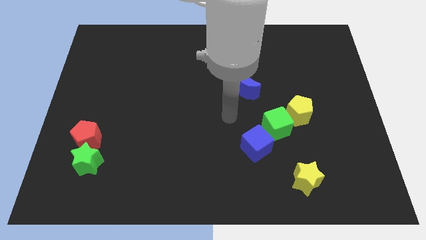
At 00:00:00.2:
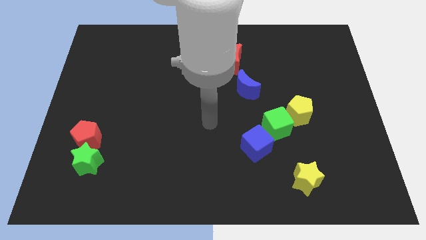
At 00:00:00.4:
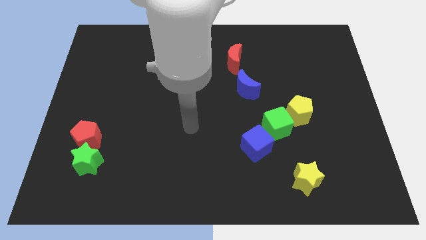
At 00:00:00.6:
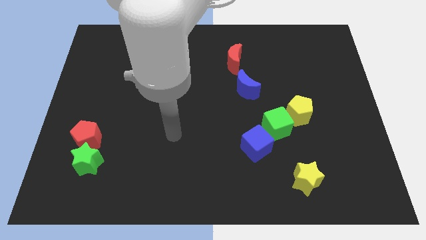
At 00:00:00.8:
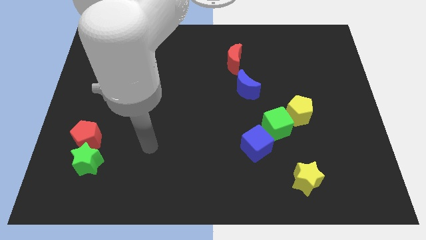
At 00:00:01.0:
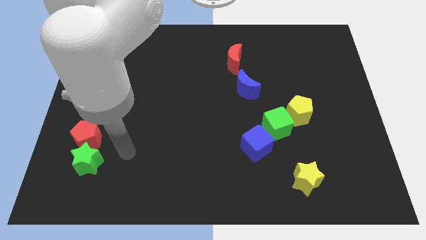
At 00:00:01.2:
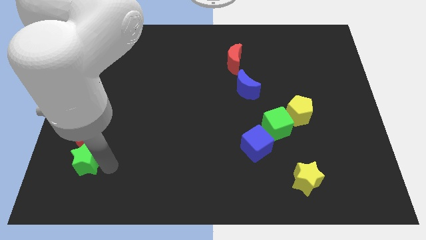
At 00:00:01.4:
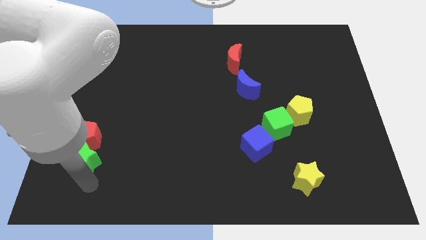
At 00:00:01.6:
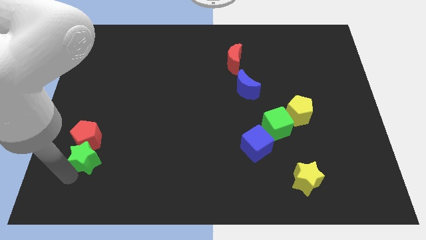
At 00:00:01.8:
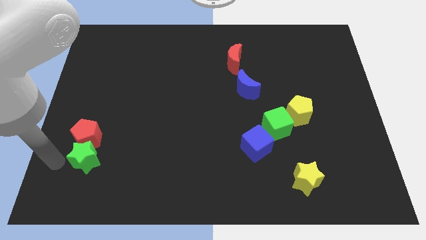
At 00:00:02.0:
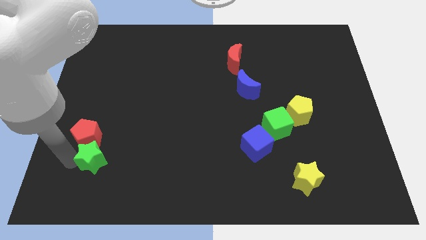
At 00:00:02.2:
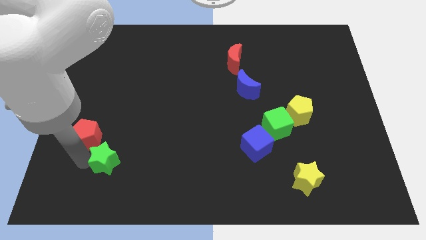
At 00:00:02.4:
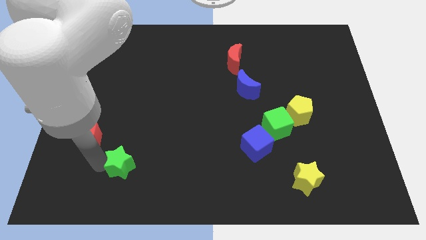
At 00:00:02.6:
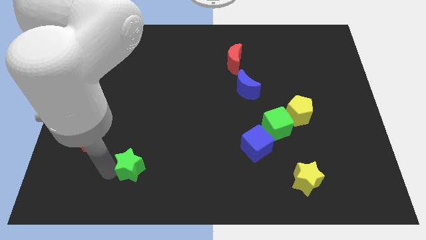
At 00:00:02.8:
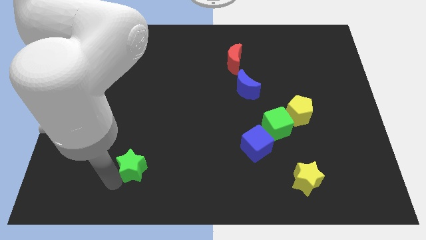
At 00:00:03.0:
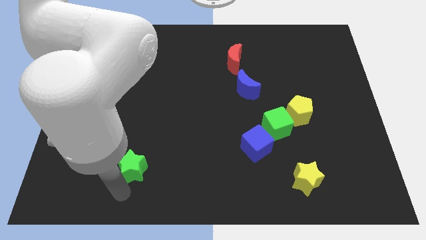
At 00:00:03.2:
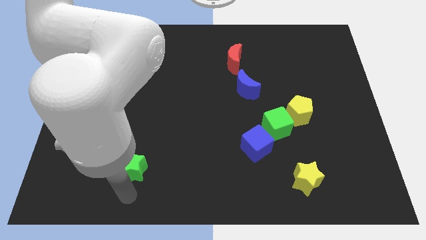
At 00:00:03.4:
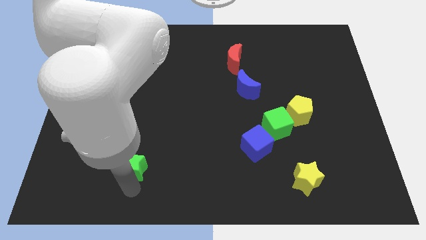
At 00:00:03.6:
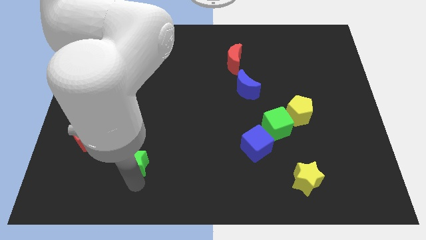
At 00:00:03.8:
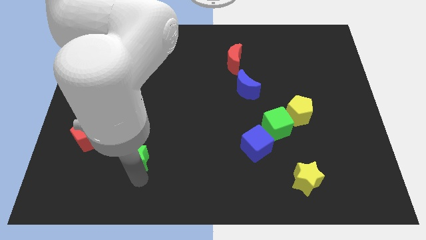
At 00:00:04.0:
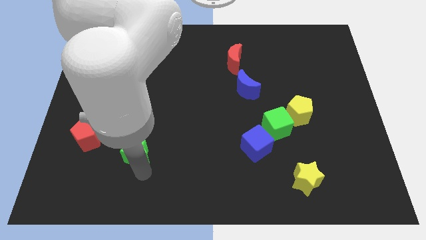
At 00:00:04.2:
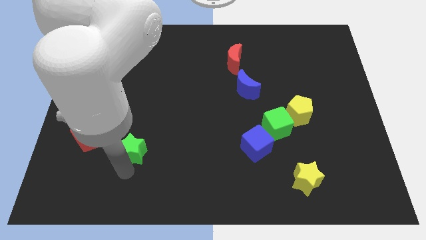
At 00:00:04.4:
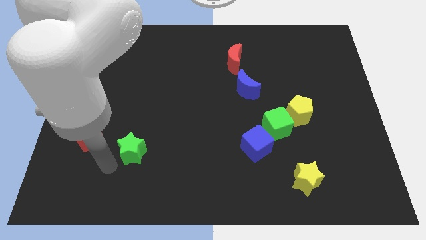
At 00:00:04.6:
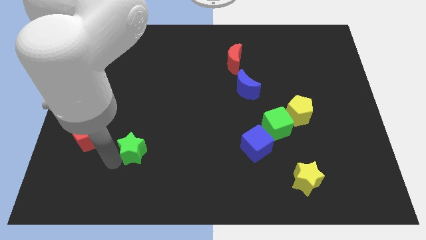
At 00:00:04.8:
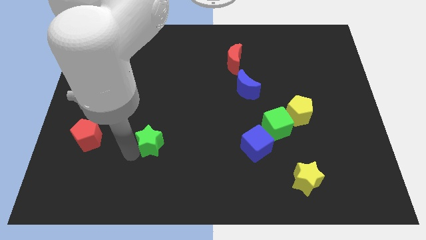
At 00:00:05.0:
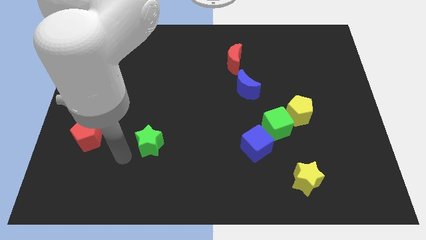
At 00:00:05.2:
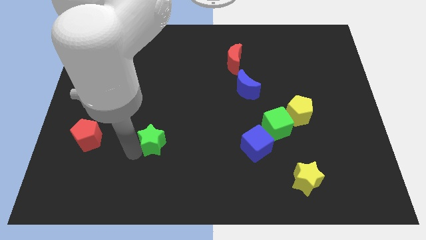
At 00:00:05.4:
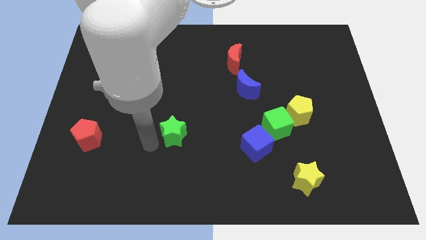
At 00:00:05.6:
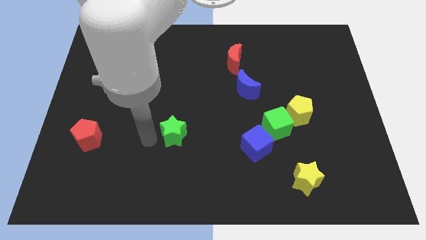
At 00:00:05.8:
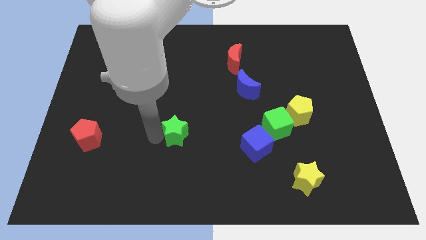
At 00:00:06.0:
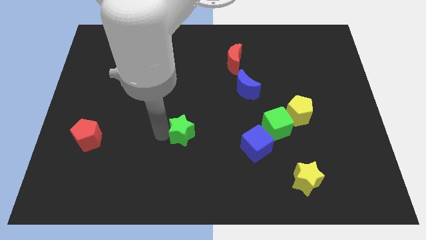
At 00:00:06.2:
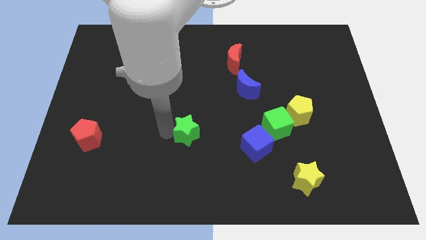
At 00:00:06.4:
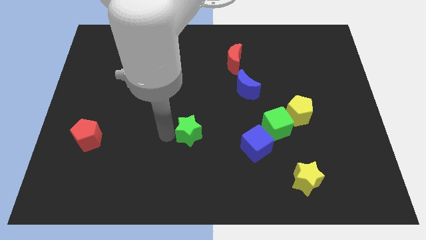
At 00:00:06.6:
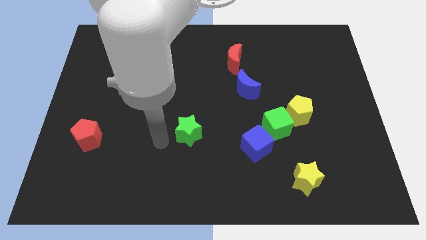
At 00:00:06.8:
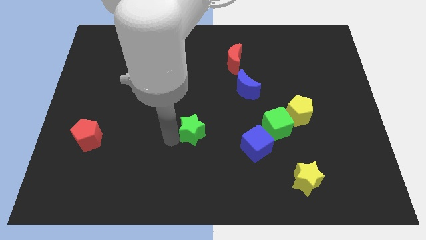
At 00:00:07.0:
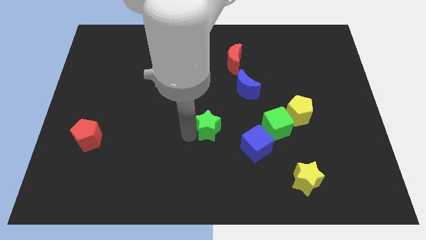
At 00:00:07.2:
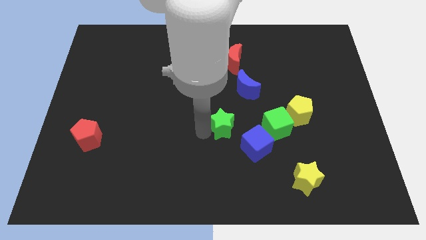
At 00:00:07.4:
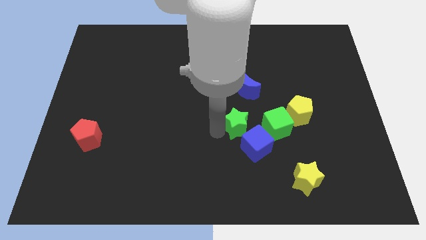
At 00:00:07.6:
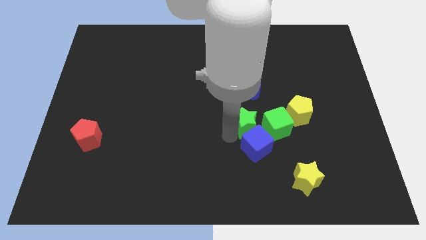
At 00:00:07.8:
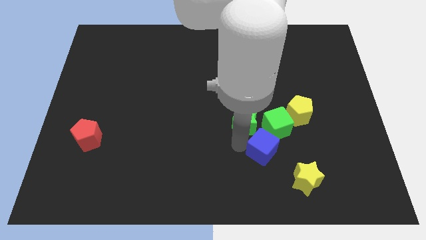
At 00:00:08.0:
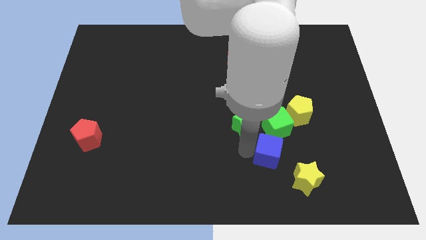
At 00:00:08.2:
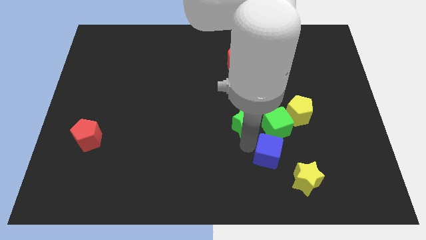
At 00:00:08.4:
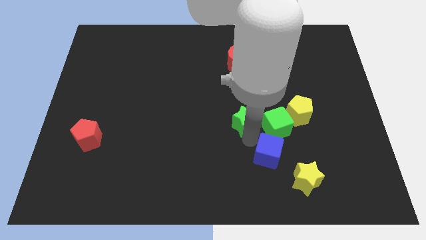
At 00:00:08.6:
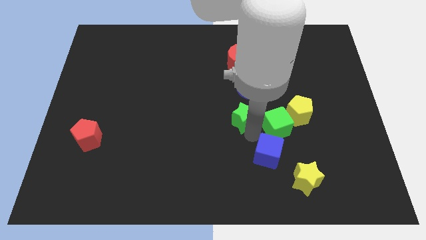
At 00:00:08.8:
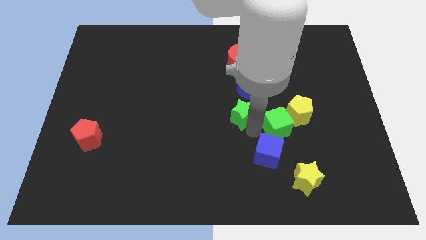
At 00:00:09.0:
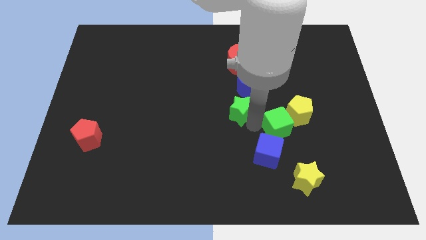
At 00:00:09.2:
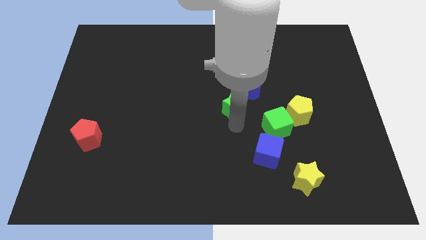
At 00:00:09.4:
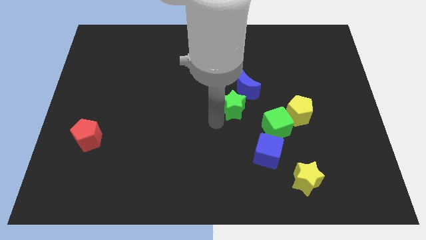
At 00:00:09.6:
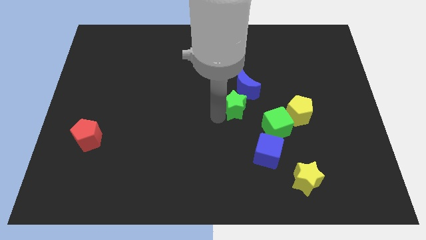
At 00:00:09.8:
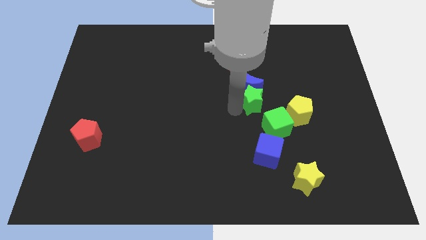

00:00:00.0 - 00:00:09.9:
put the green star above the green cube

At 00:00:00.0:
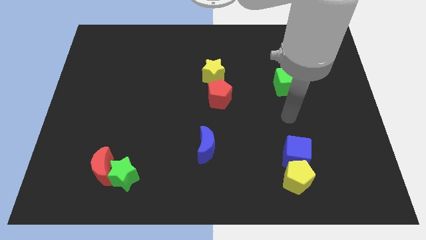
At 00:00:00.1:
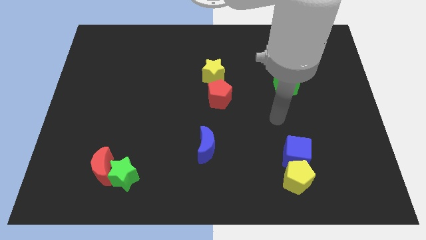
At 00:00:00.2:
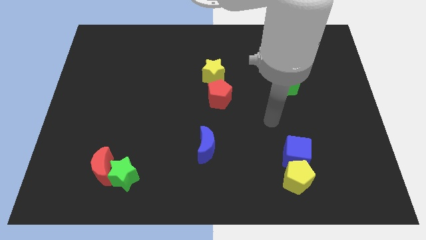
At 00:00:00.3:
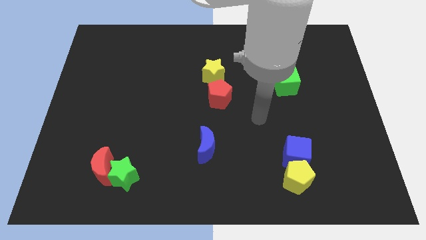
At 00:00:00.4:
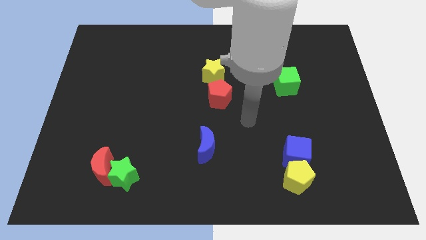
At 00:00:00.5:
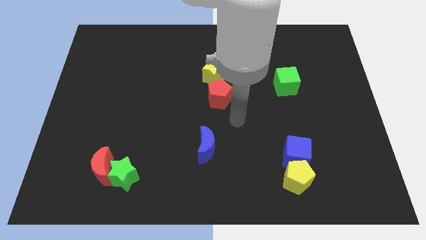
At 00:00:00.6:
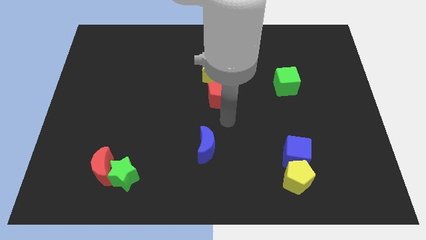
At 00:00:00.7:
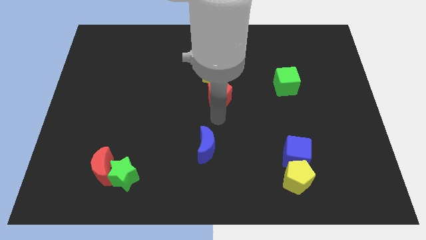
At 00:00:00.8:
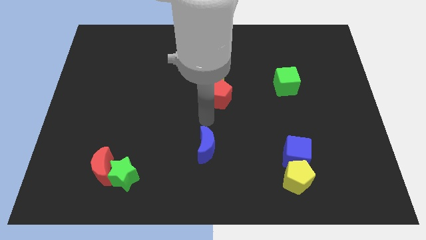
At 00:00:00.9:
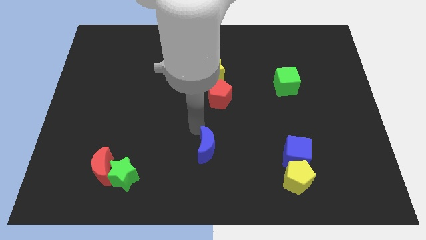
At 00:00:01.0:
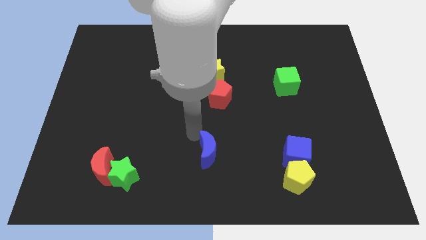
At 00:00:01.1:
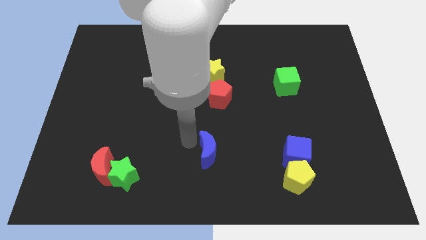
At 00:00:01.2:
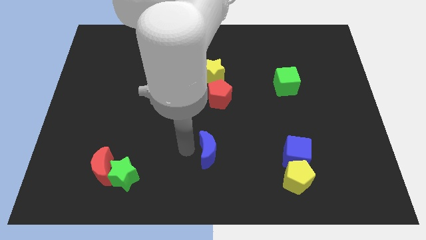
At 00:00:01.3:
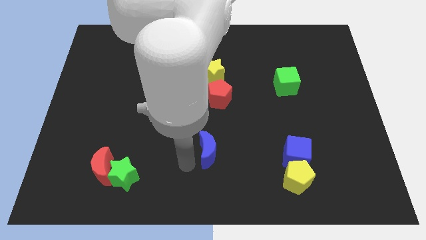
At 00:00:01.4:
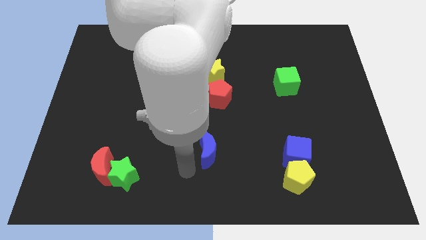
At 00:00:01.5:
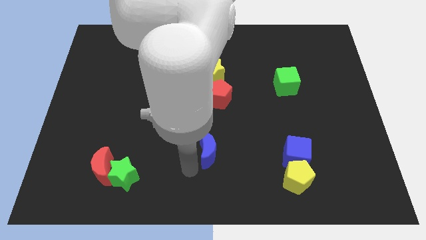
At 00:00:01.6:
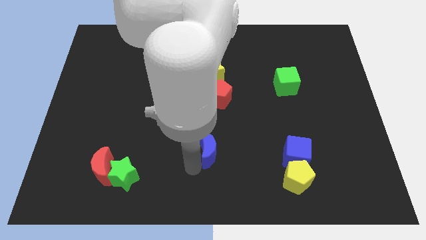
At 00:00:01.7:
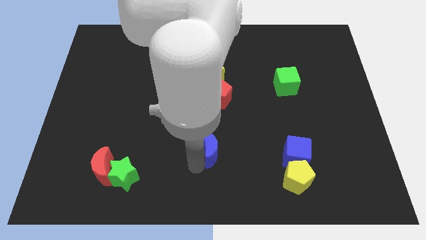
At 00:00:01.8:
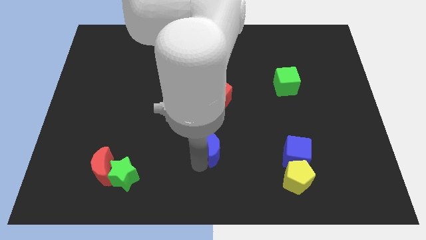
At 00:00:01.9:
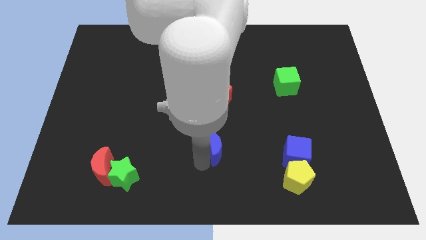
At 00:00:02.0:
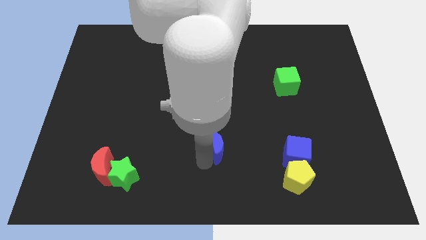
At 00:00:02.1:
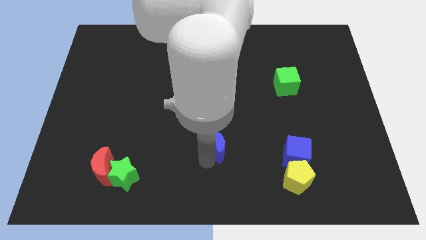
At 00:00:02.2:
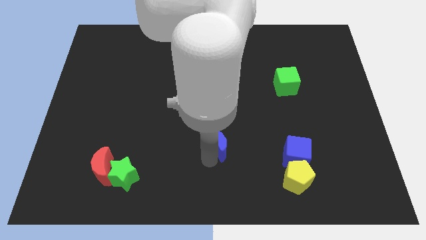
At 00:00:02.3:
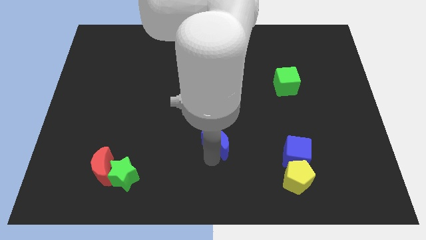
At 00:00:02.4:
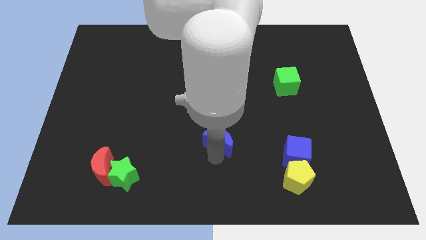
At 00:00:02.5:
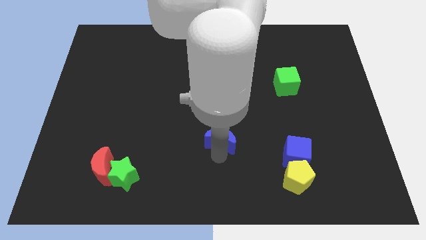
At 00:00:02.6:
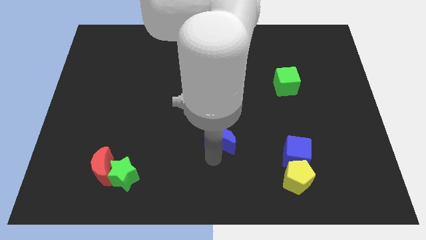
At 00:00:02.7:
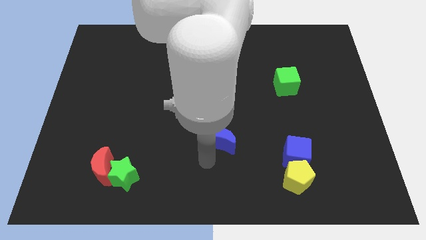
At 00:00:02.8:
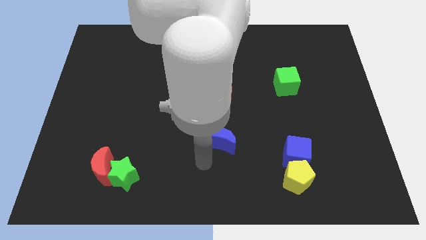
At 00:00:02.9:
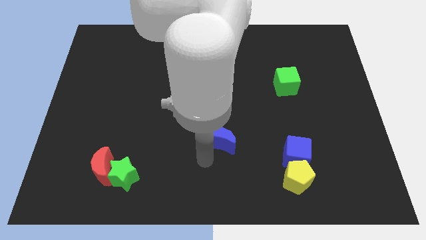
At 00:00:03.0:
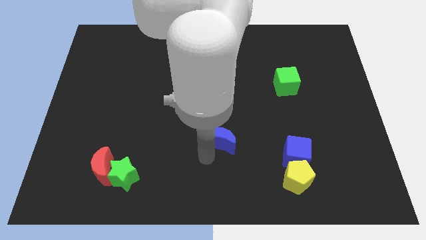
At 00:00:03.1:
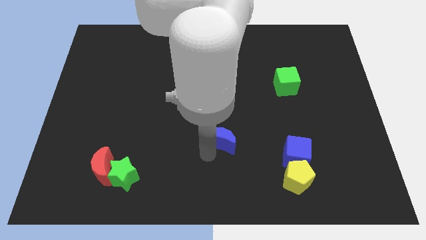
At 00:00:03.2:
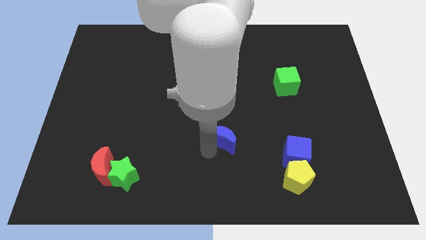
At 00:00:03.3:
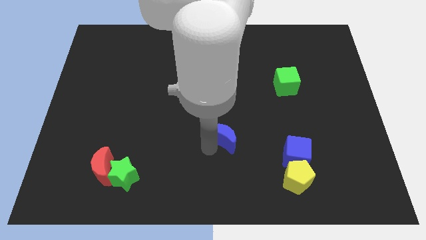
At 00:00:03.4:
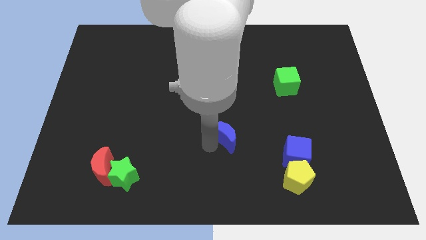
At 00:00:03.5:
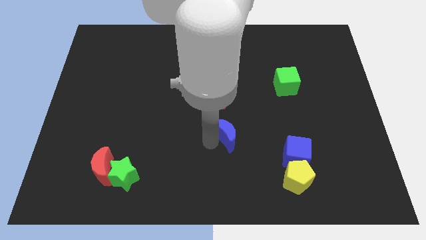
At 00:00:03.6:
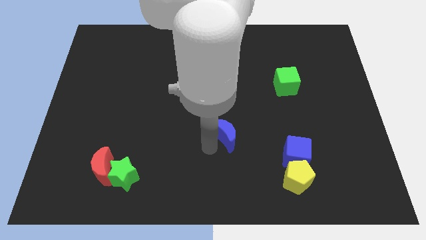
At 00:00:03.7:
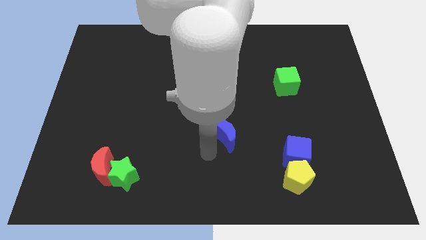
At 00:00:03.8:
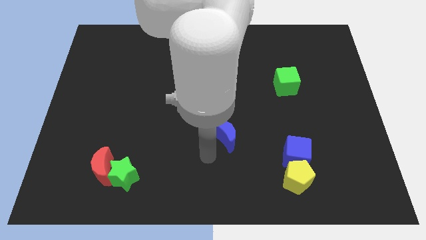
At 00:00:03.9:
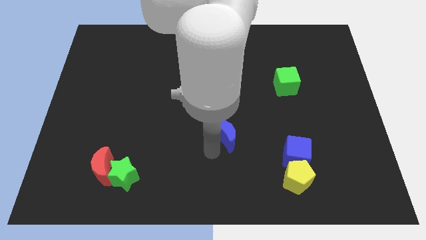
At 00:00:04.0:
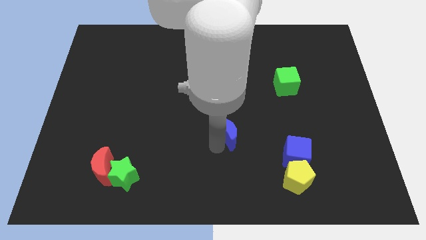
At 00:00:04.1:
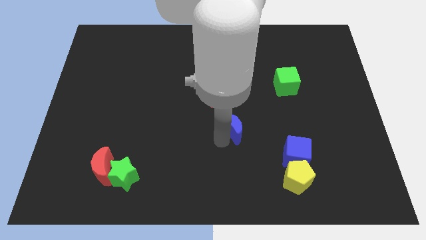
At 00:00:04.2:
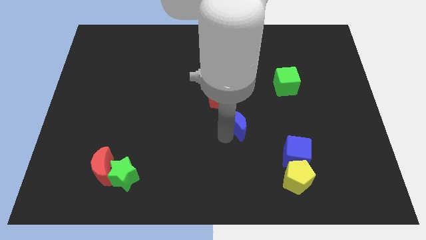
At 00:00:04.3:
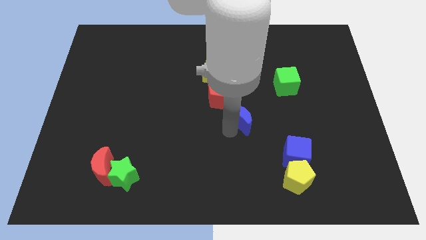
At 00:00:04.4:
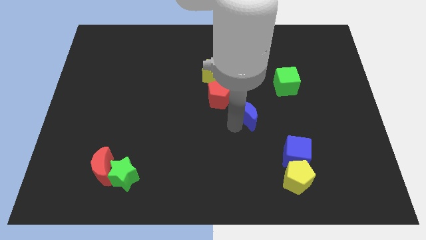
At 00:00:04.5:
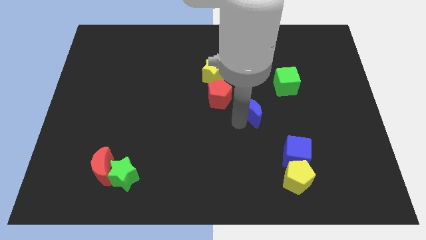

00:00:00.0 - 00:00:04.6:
put the blue moon to the bottom left of the green cube
